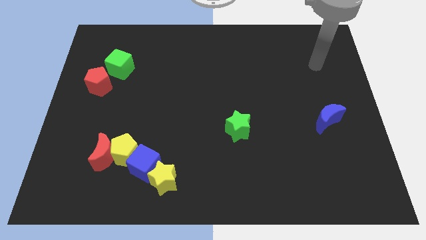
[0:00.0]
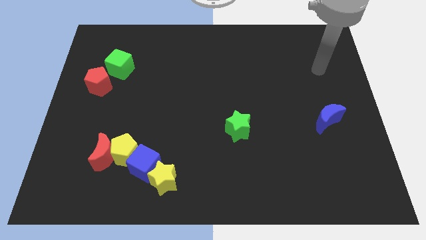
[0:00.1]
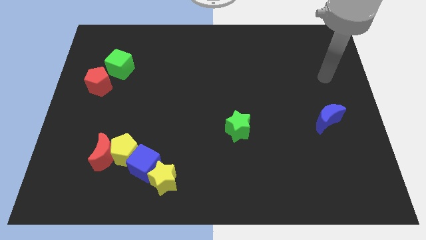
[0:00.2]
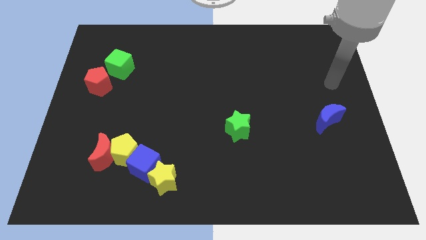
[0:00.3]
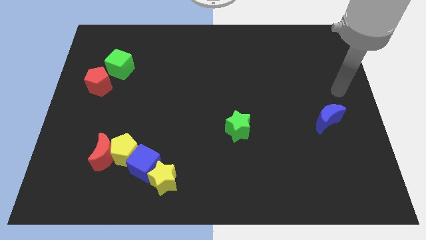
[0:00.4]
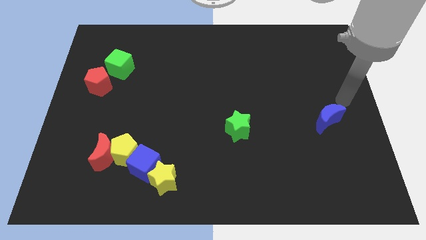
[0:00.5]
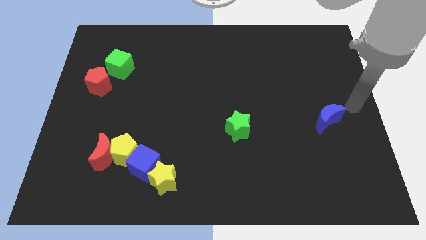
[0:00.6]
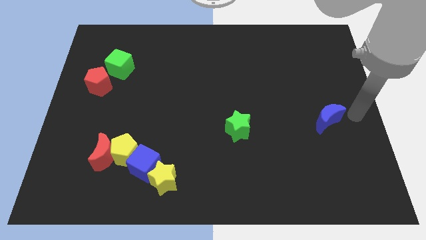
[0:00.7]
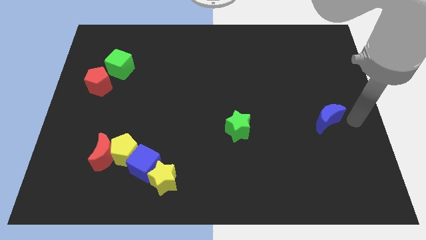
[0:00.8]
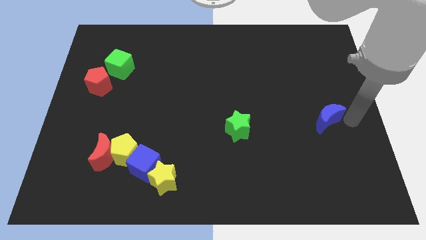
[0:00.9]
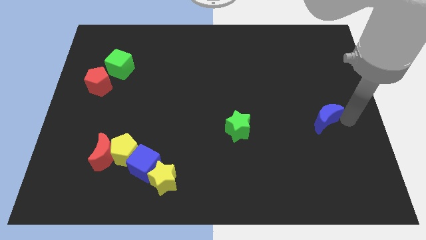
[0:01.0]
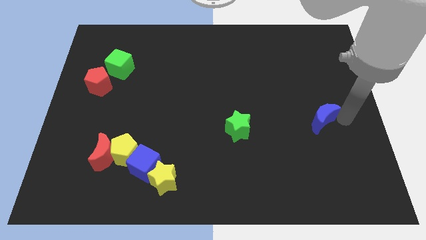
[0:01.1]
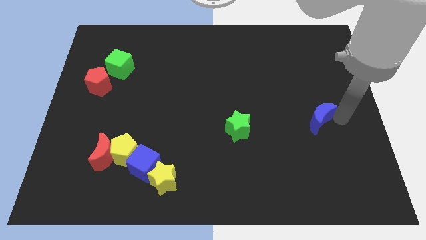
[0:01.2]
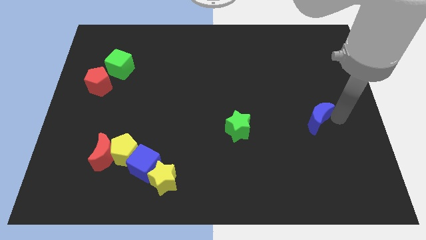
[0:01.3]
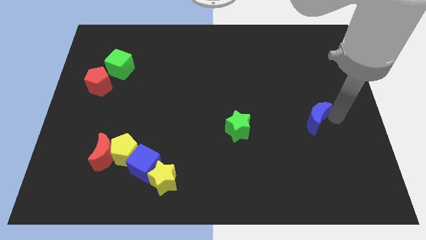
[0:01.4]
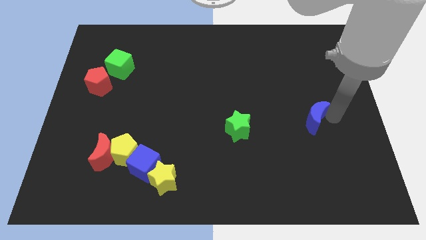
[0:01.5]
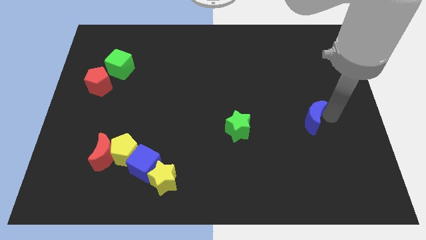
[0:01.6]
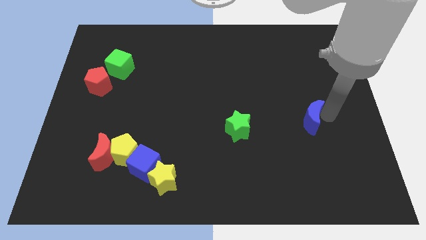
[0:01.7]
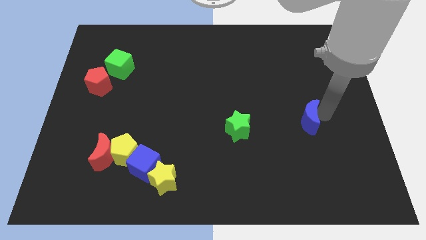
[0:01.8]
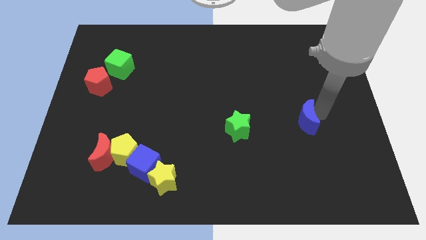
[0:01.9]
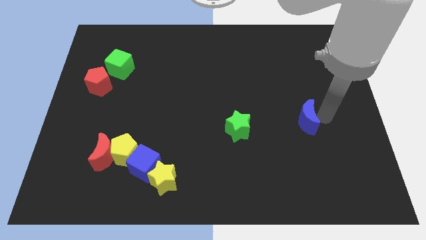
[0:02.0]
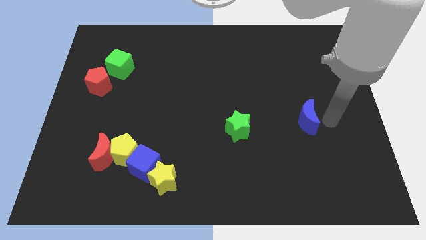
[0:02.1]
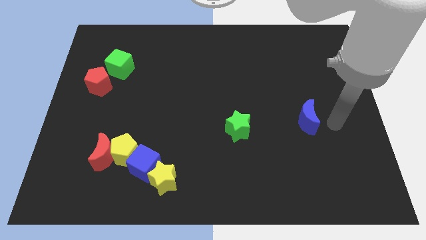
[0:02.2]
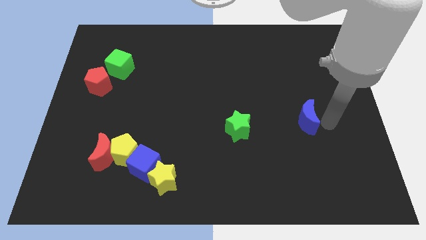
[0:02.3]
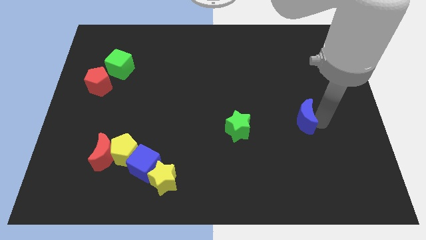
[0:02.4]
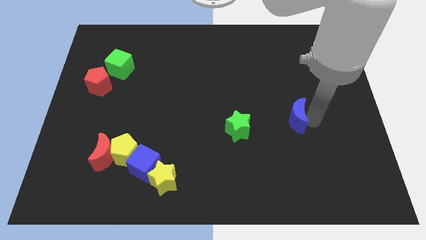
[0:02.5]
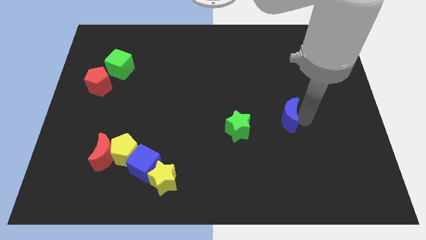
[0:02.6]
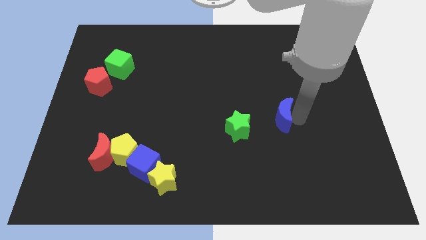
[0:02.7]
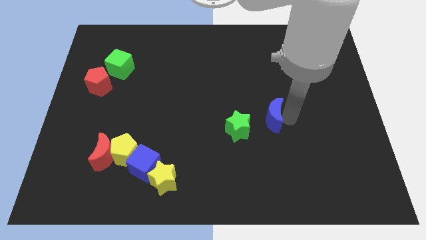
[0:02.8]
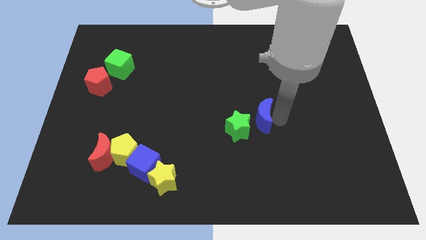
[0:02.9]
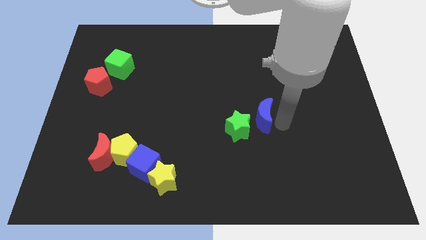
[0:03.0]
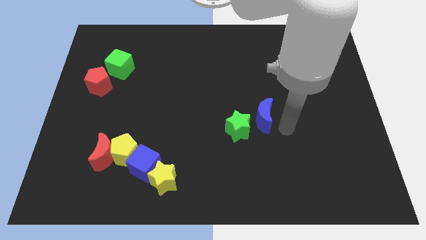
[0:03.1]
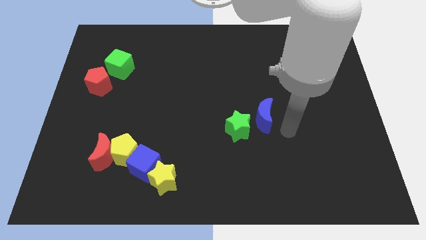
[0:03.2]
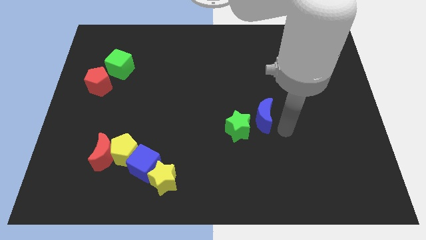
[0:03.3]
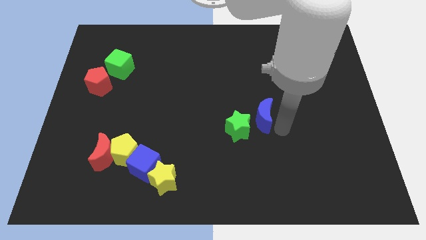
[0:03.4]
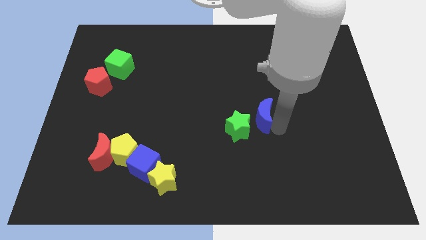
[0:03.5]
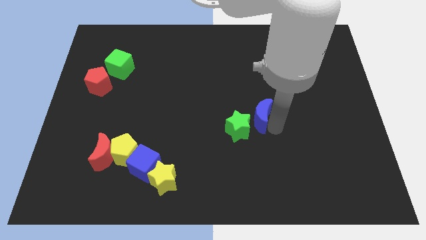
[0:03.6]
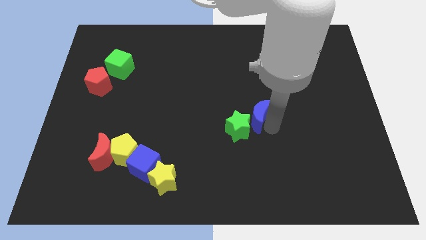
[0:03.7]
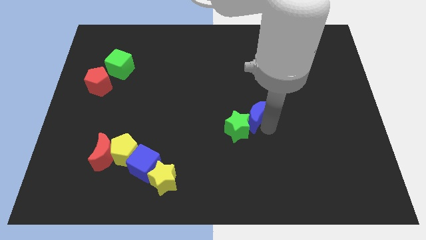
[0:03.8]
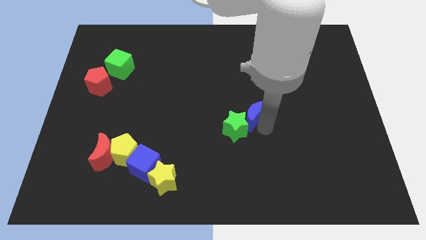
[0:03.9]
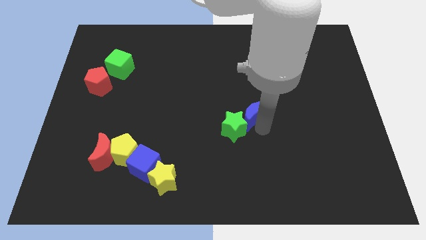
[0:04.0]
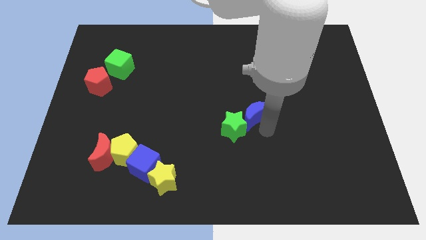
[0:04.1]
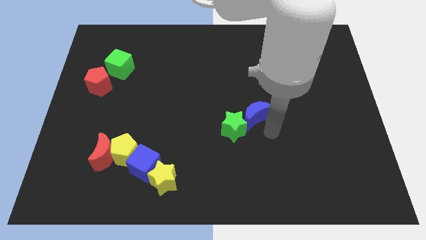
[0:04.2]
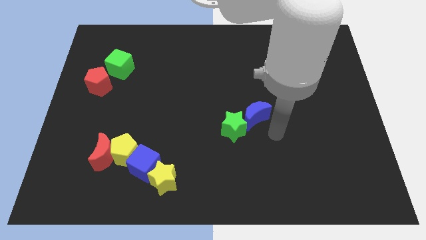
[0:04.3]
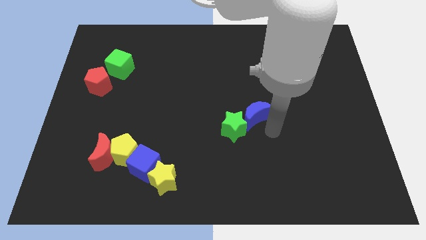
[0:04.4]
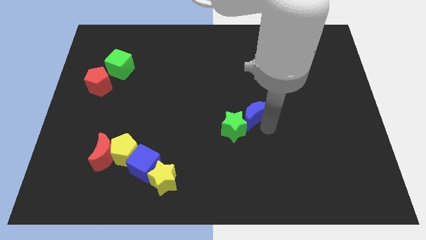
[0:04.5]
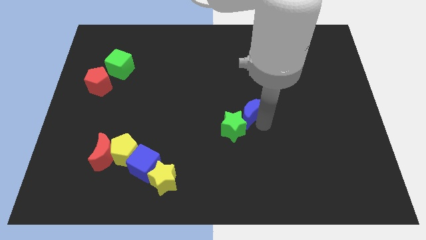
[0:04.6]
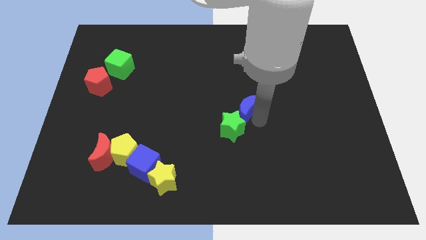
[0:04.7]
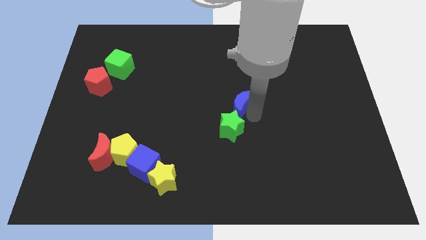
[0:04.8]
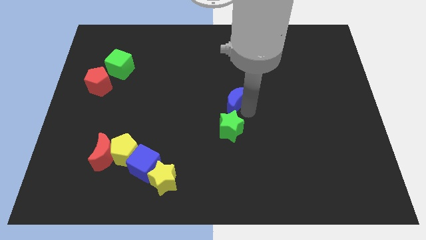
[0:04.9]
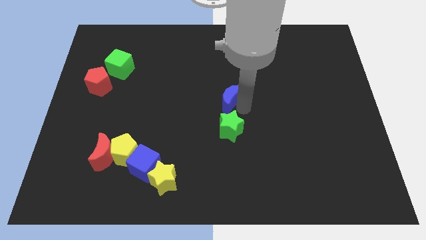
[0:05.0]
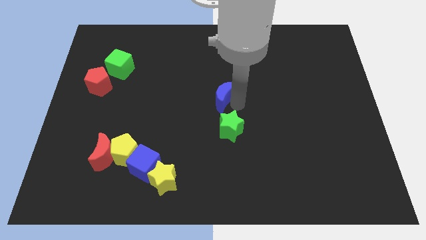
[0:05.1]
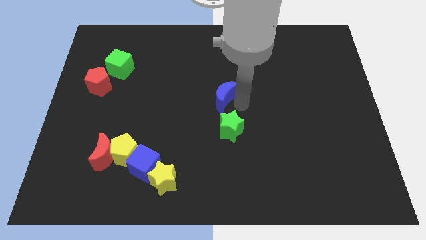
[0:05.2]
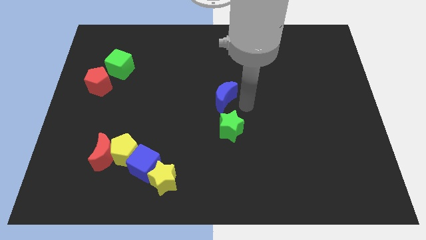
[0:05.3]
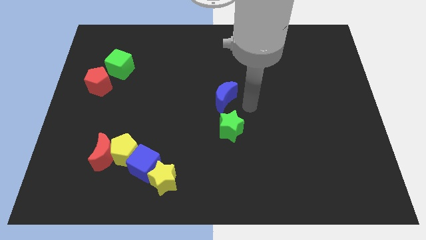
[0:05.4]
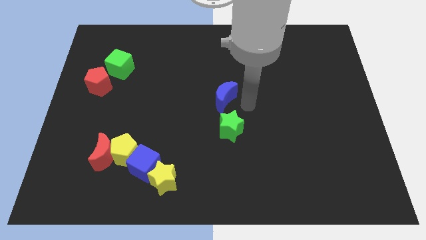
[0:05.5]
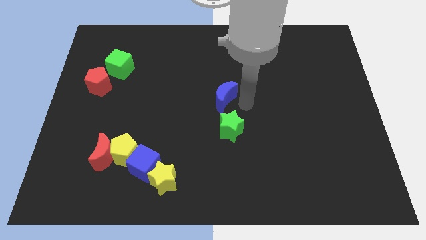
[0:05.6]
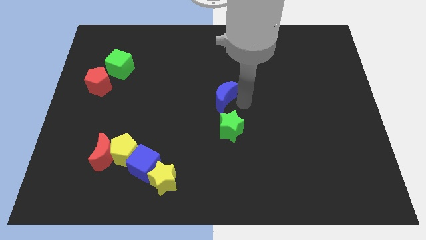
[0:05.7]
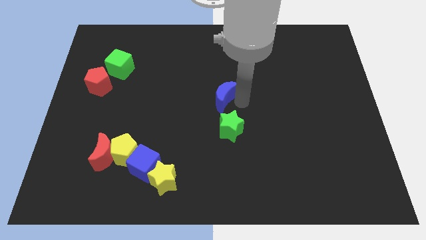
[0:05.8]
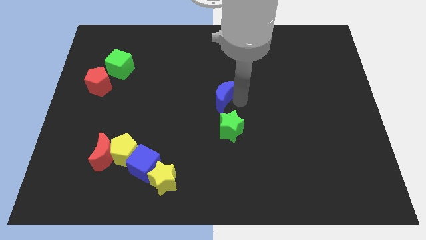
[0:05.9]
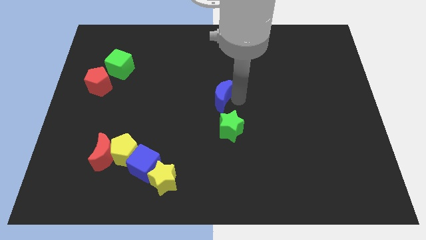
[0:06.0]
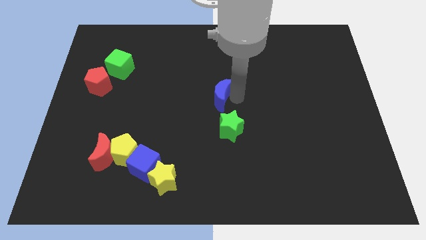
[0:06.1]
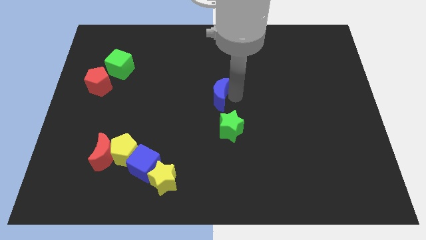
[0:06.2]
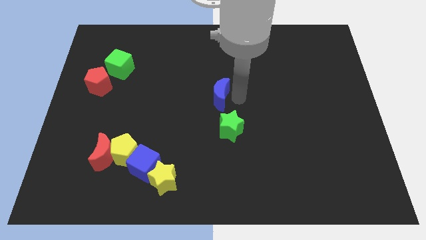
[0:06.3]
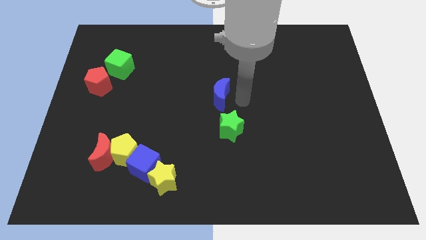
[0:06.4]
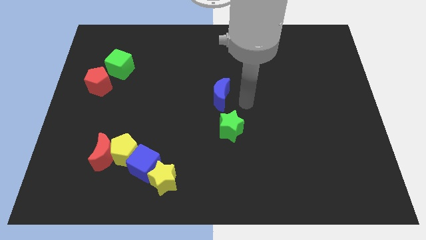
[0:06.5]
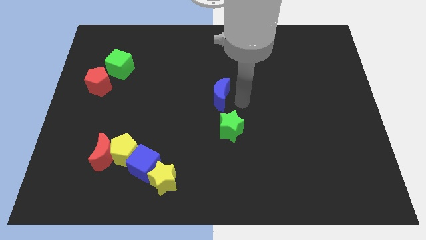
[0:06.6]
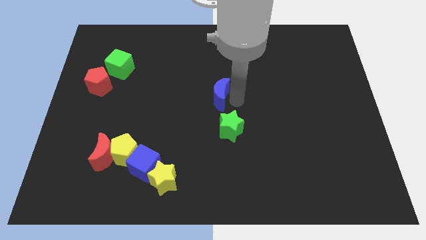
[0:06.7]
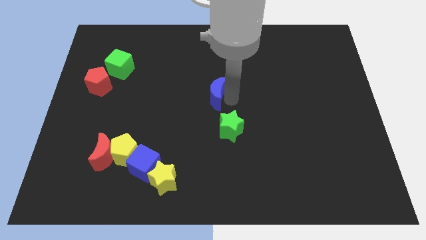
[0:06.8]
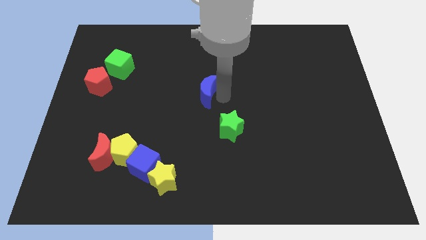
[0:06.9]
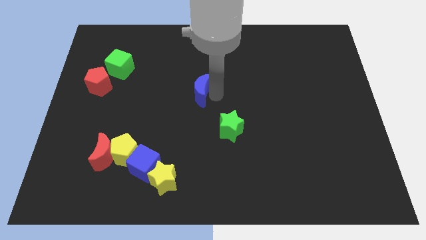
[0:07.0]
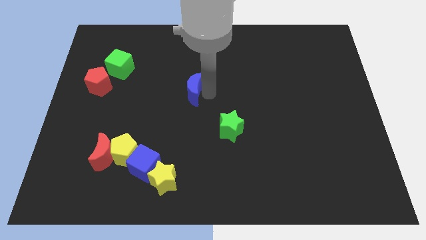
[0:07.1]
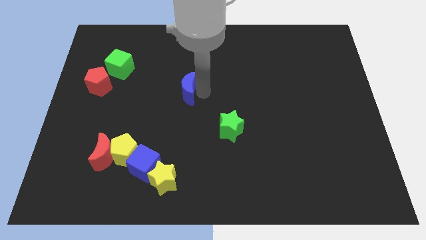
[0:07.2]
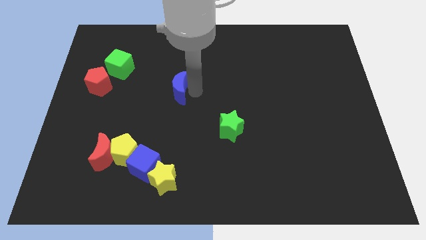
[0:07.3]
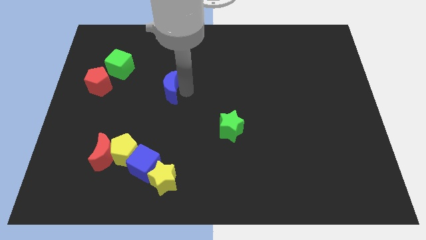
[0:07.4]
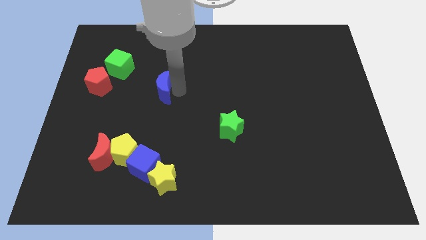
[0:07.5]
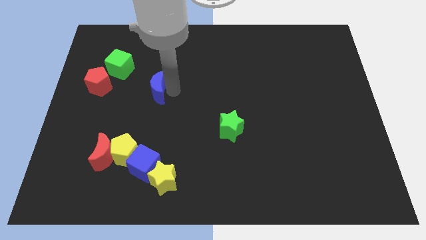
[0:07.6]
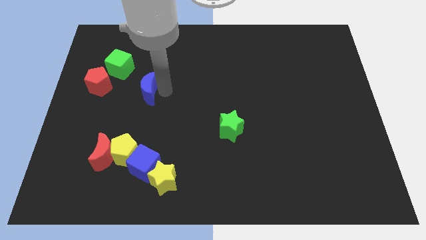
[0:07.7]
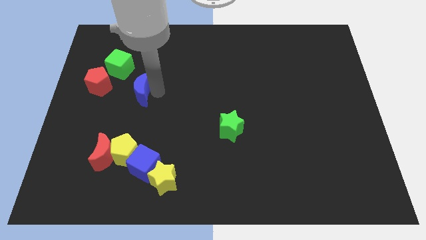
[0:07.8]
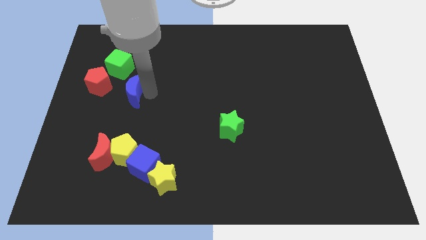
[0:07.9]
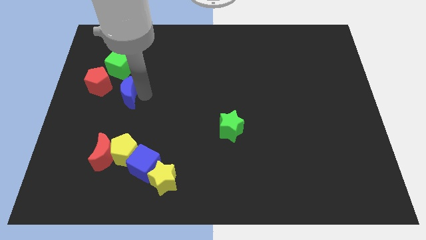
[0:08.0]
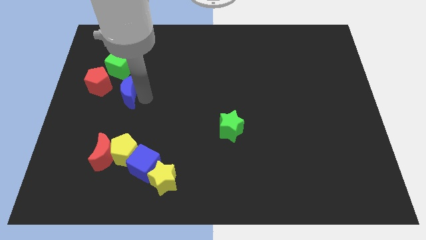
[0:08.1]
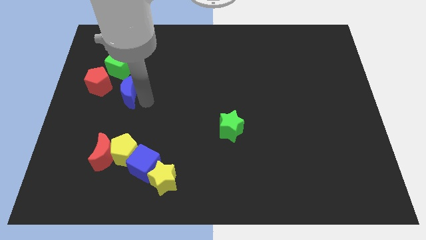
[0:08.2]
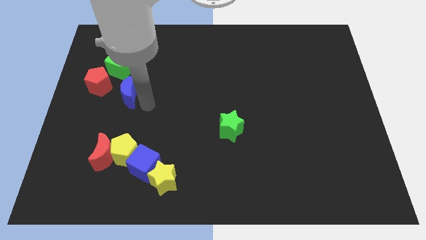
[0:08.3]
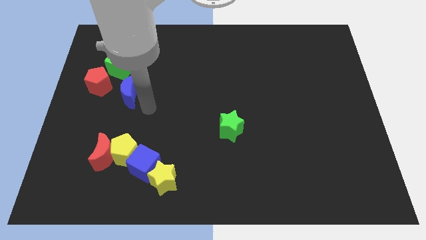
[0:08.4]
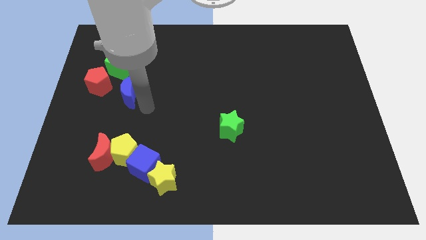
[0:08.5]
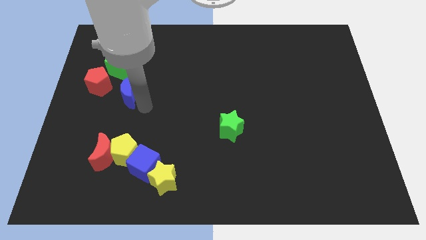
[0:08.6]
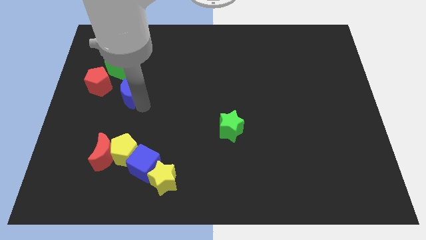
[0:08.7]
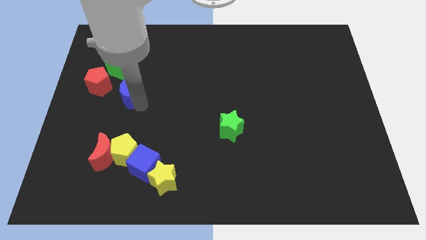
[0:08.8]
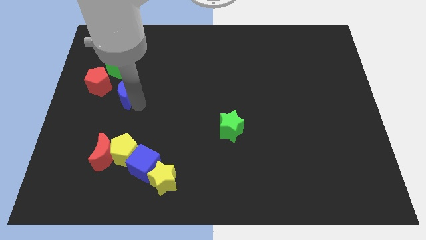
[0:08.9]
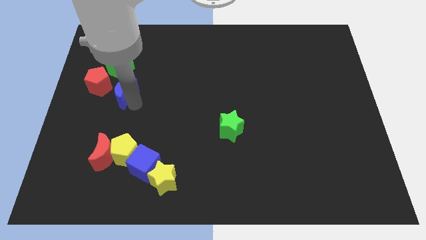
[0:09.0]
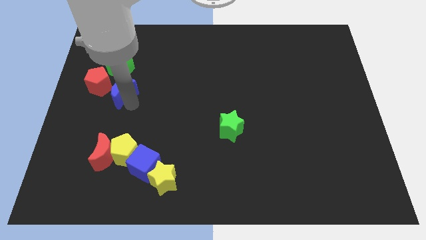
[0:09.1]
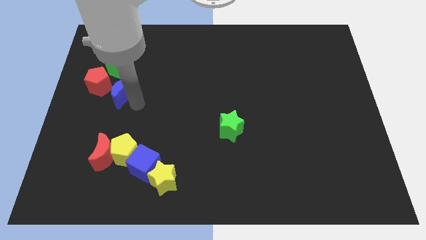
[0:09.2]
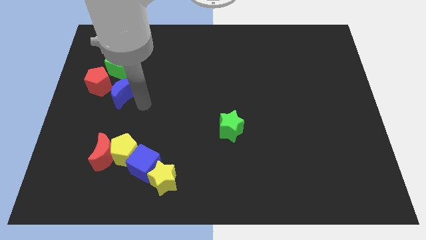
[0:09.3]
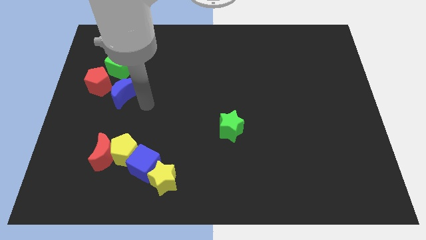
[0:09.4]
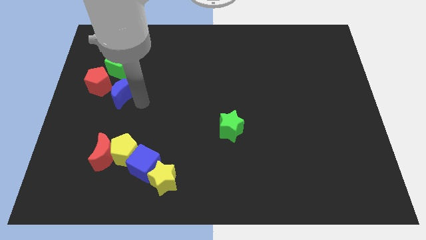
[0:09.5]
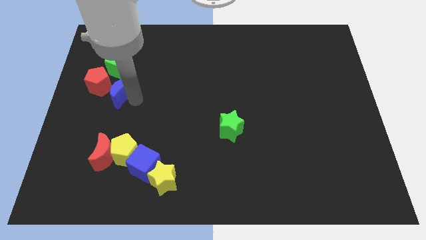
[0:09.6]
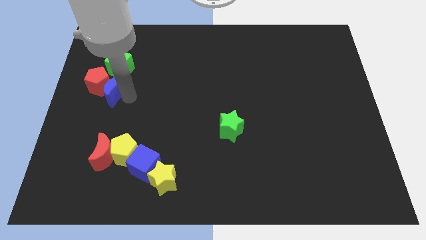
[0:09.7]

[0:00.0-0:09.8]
push the blue moon next to the red pentagon
